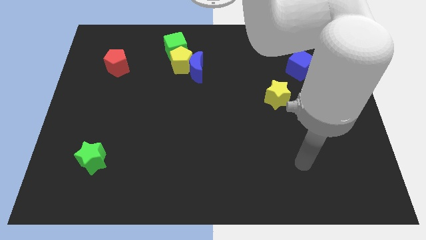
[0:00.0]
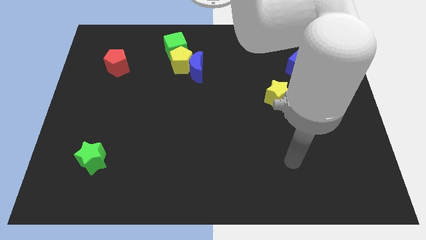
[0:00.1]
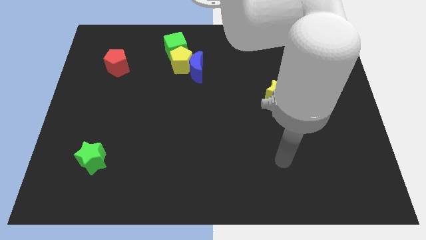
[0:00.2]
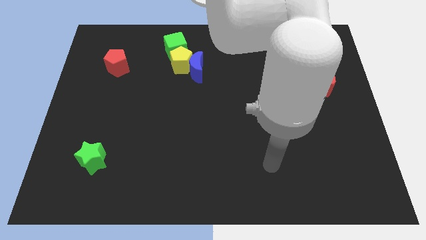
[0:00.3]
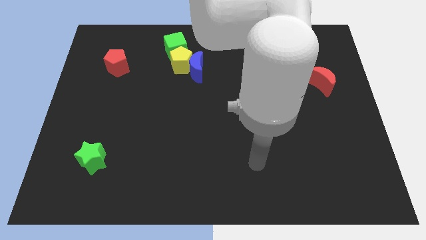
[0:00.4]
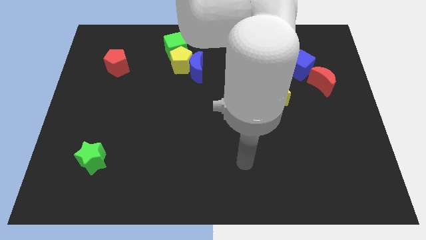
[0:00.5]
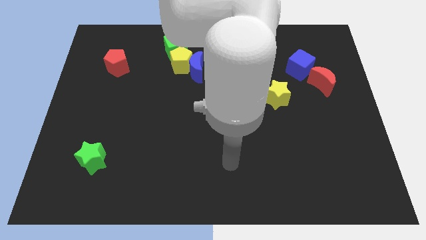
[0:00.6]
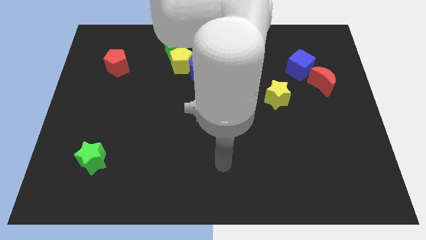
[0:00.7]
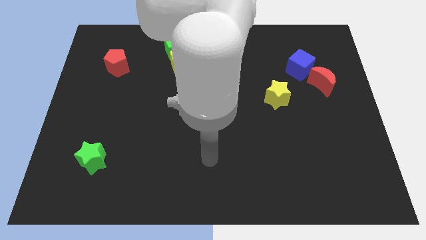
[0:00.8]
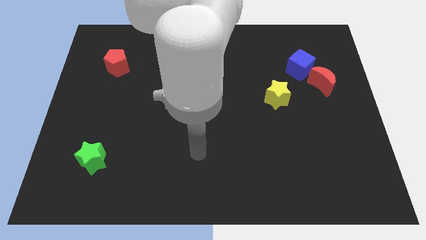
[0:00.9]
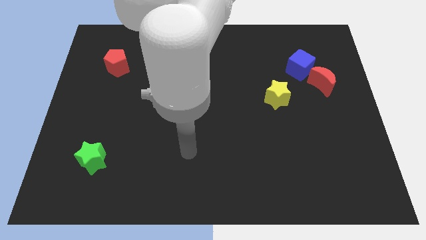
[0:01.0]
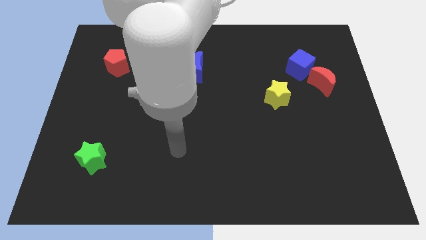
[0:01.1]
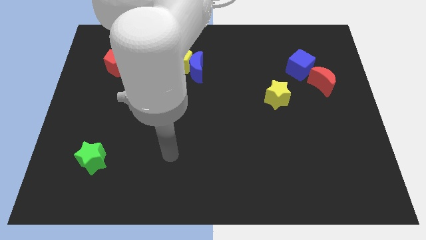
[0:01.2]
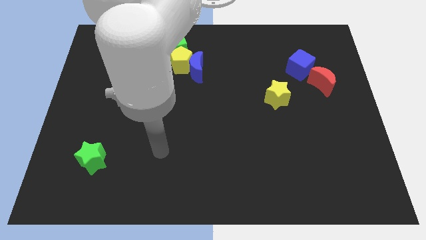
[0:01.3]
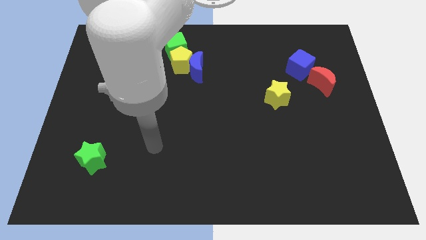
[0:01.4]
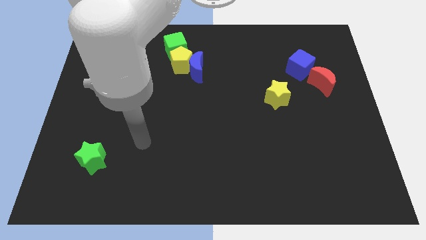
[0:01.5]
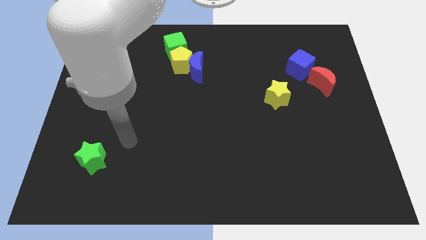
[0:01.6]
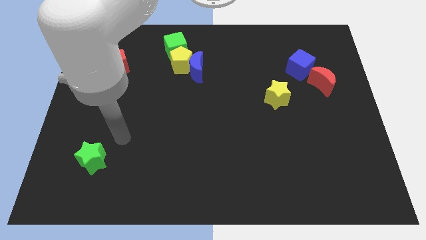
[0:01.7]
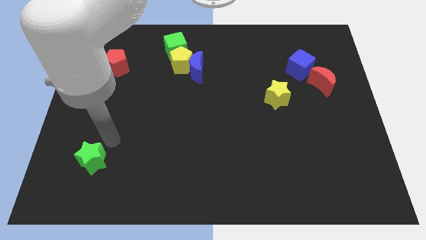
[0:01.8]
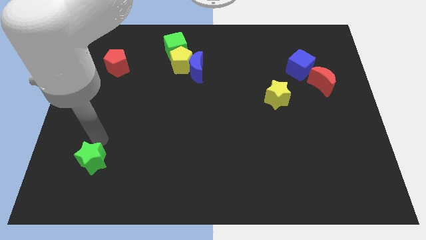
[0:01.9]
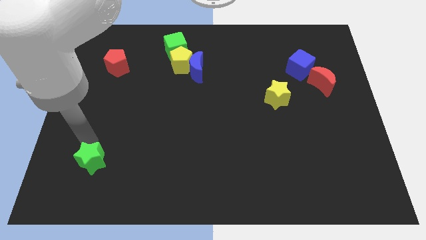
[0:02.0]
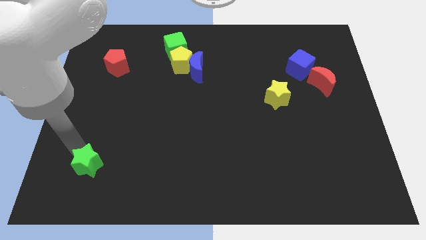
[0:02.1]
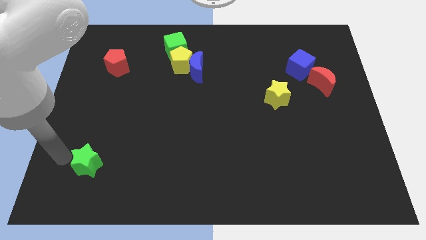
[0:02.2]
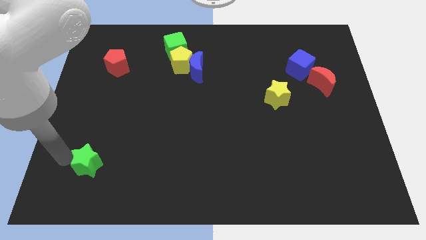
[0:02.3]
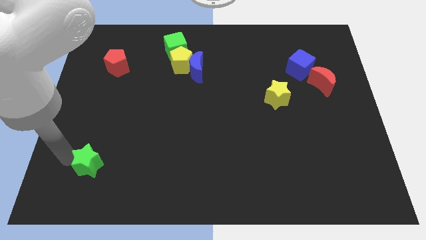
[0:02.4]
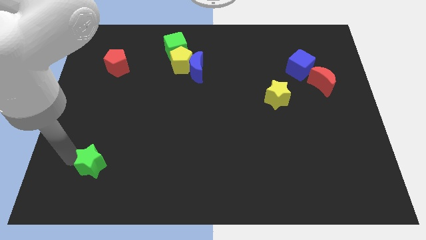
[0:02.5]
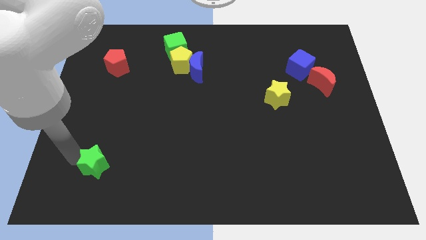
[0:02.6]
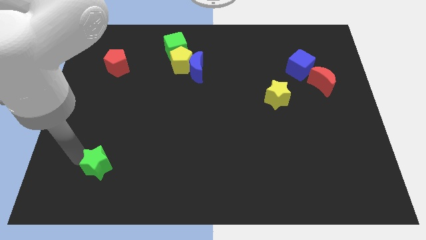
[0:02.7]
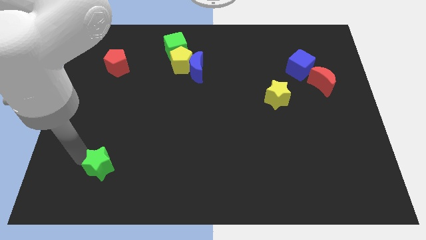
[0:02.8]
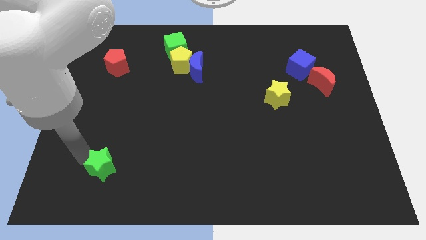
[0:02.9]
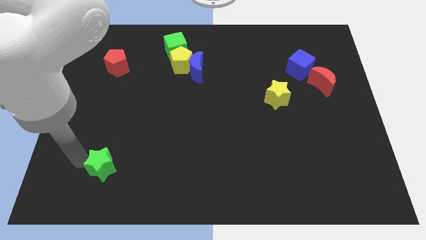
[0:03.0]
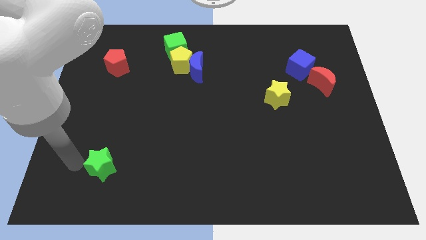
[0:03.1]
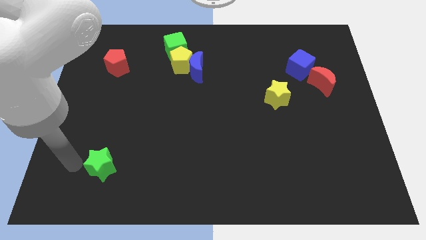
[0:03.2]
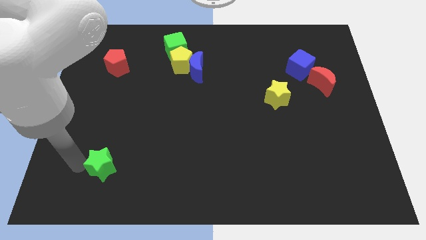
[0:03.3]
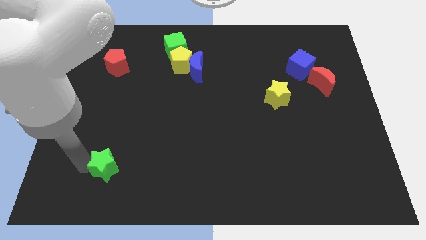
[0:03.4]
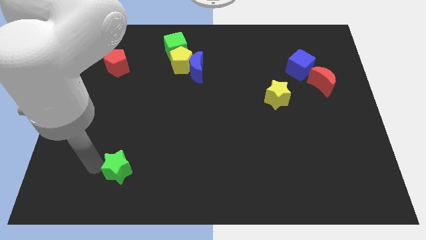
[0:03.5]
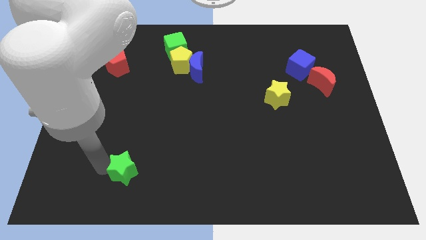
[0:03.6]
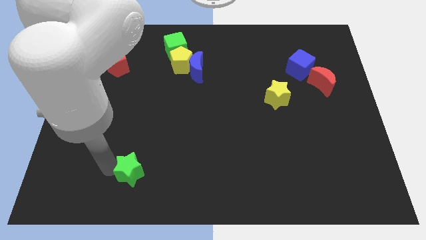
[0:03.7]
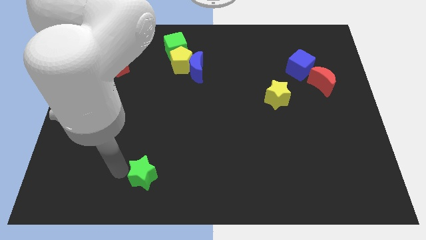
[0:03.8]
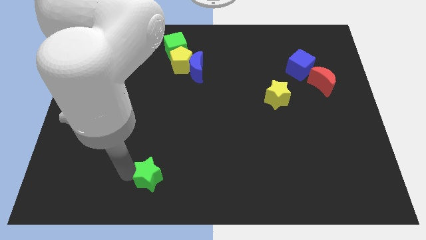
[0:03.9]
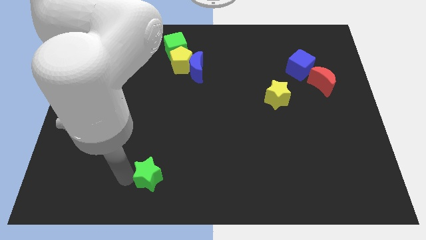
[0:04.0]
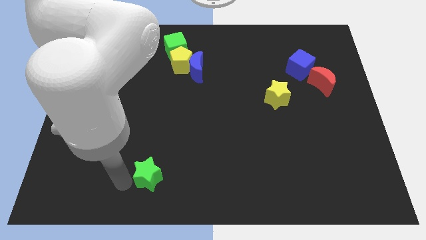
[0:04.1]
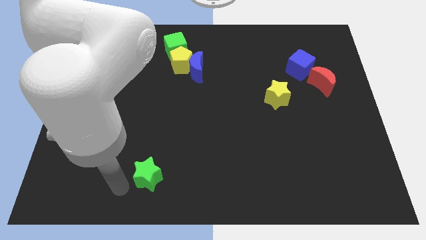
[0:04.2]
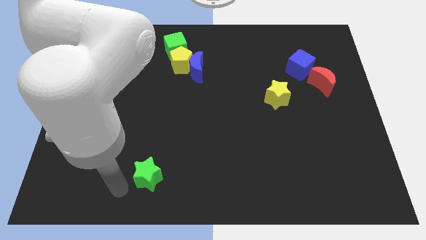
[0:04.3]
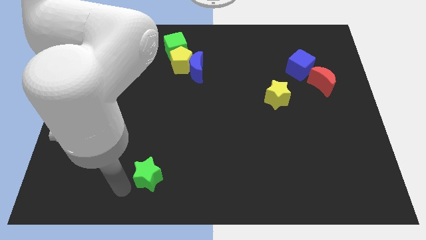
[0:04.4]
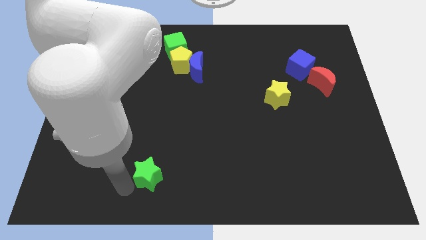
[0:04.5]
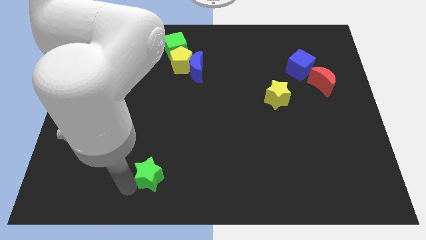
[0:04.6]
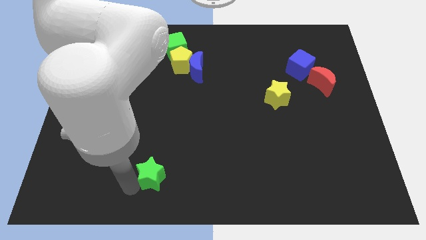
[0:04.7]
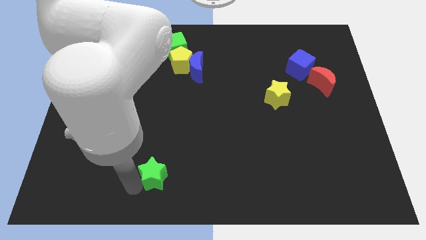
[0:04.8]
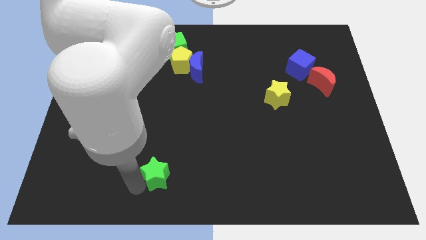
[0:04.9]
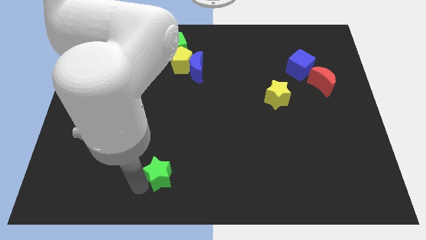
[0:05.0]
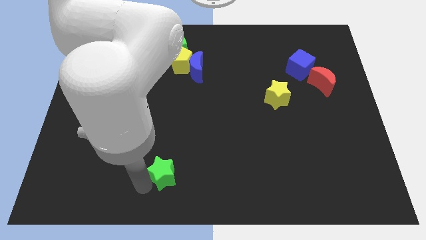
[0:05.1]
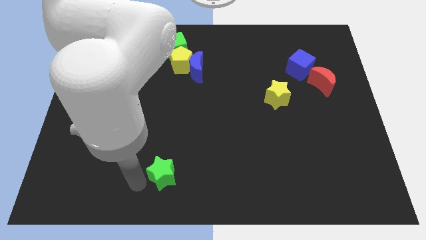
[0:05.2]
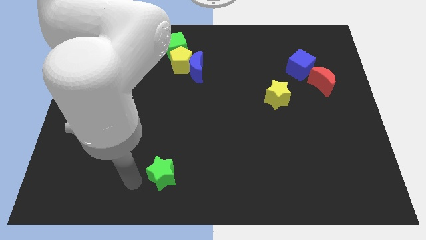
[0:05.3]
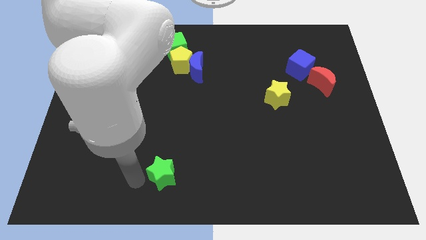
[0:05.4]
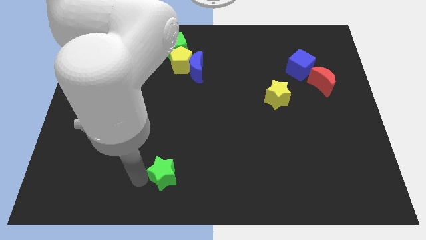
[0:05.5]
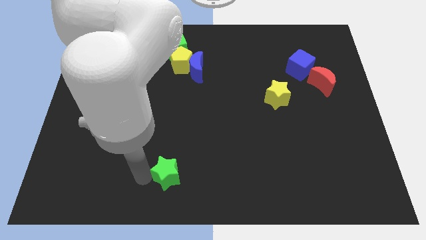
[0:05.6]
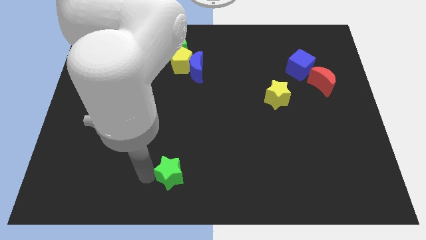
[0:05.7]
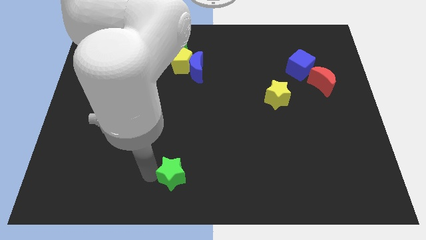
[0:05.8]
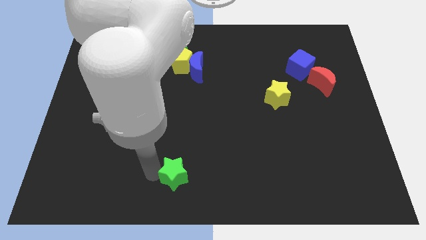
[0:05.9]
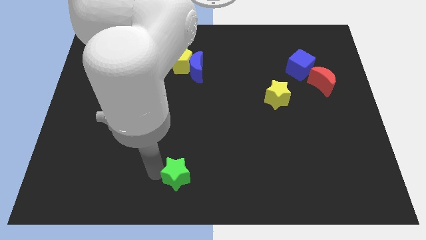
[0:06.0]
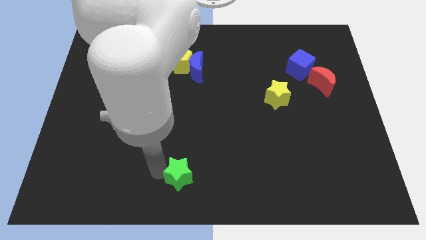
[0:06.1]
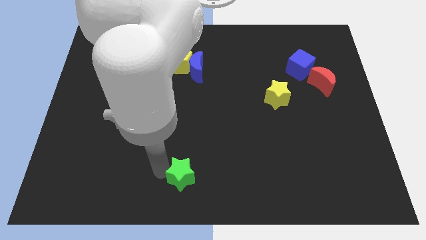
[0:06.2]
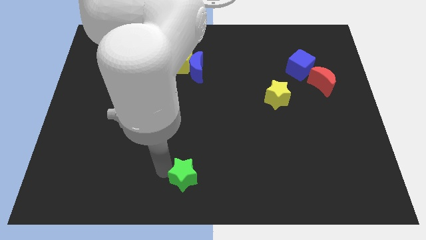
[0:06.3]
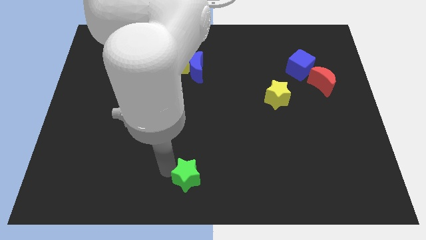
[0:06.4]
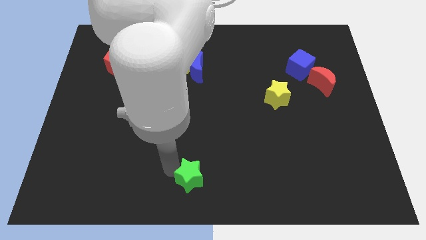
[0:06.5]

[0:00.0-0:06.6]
push the green star to the right

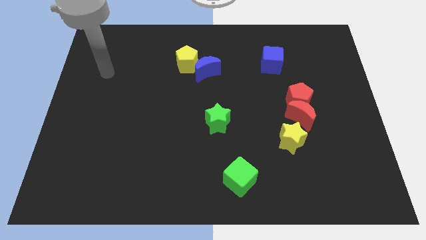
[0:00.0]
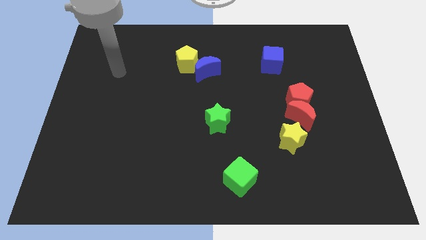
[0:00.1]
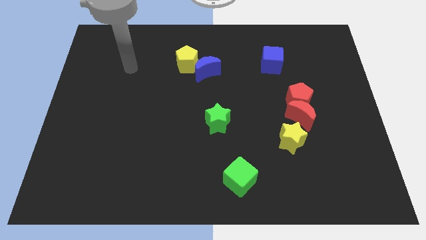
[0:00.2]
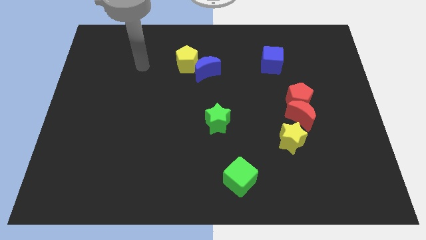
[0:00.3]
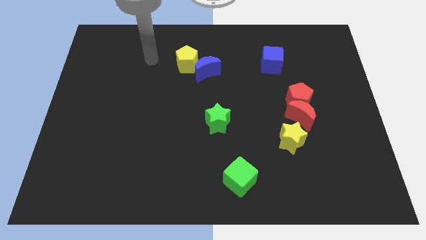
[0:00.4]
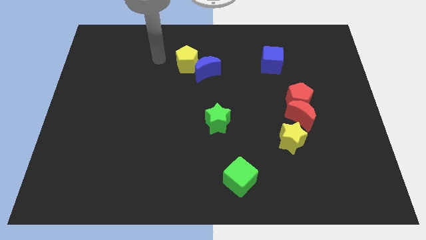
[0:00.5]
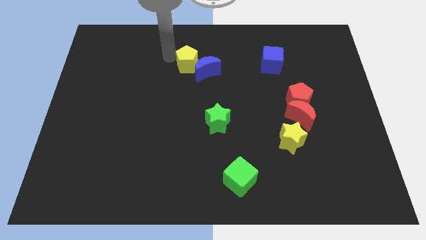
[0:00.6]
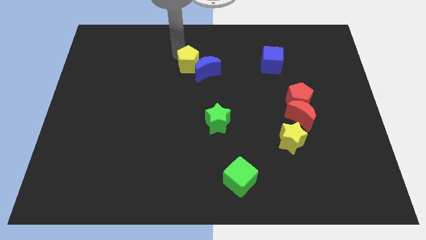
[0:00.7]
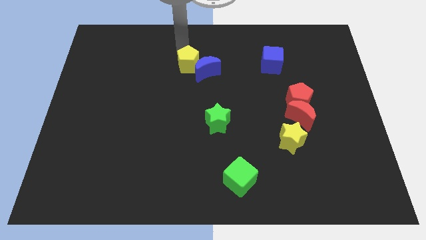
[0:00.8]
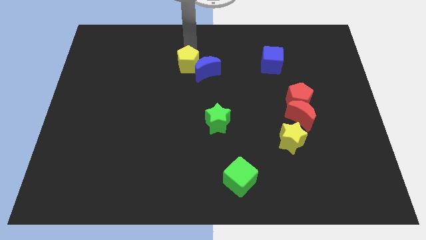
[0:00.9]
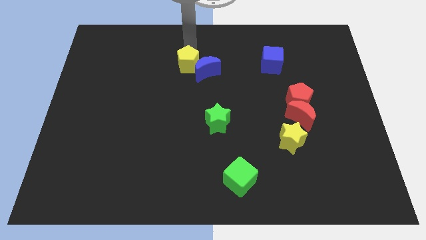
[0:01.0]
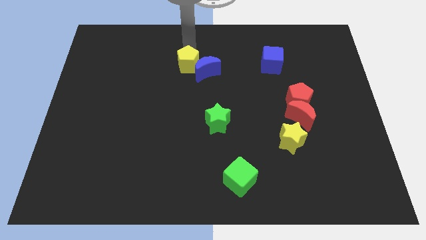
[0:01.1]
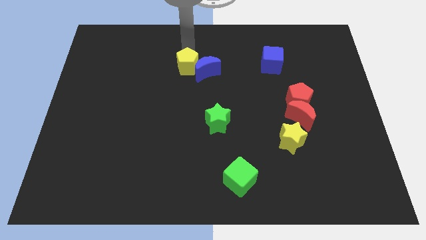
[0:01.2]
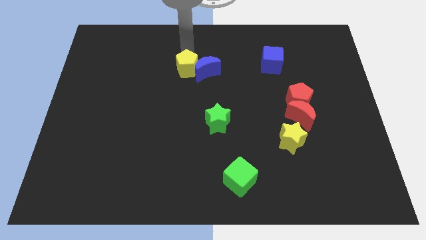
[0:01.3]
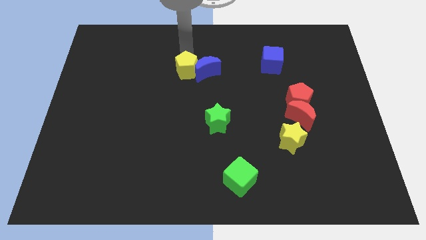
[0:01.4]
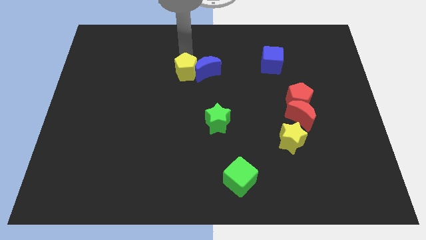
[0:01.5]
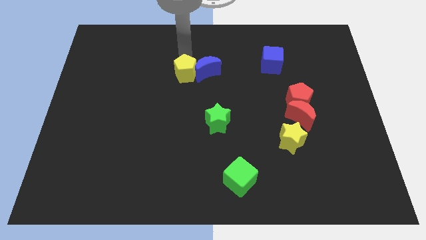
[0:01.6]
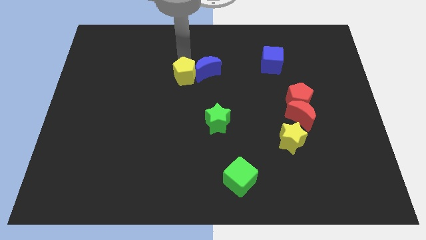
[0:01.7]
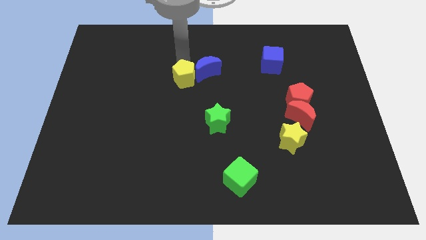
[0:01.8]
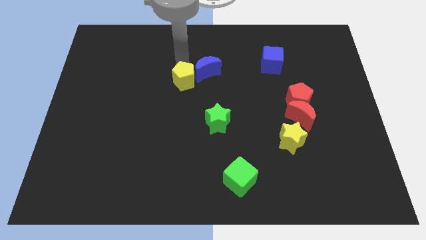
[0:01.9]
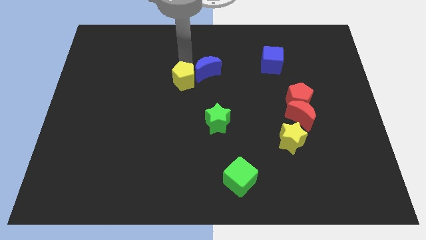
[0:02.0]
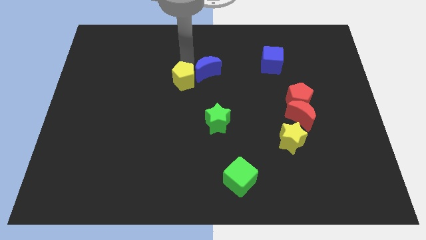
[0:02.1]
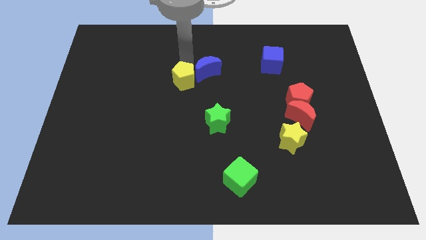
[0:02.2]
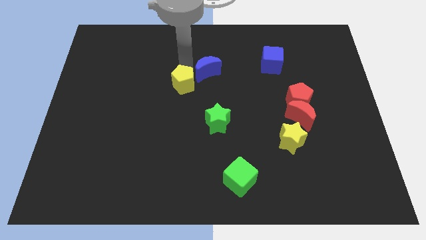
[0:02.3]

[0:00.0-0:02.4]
slide the yellow pentagon a little downwards
